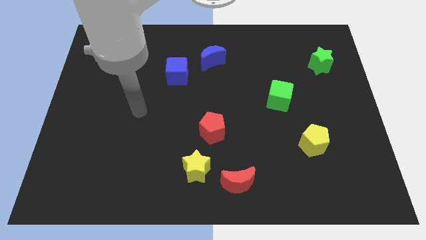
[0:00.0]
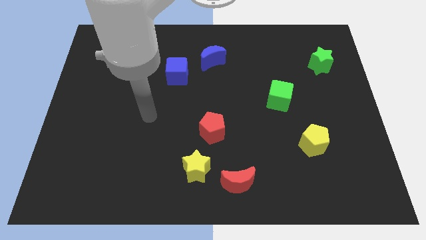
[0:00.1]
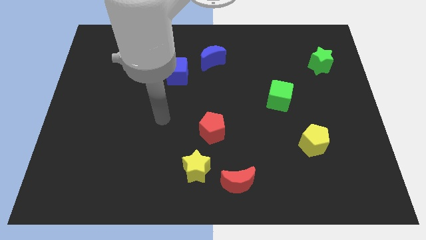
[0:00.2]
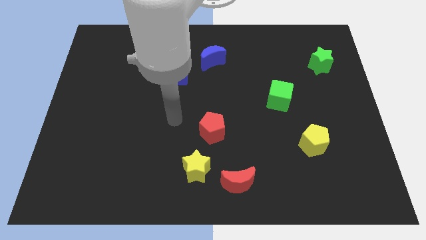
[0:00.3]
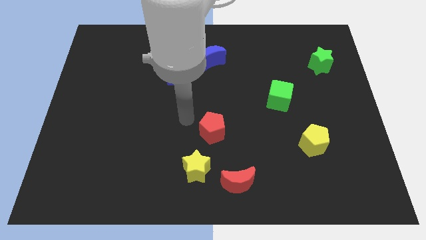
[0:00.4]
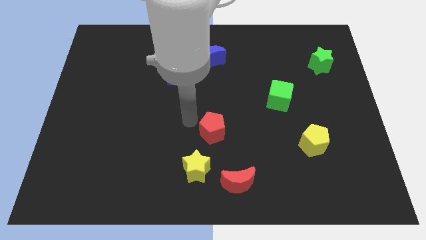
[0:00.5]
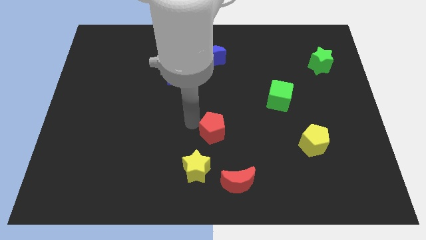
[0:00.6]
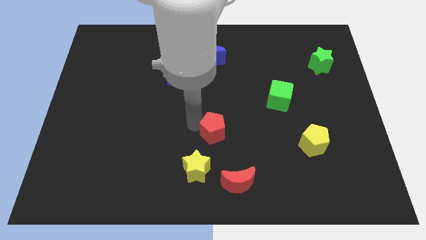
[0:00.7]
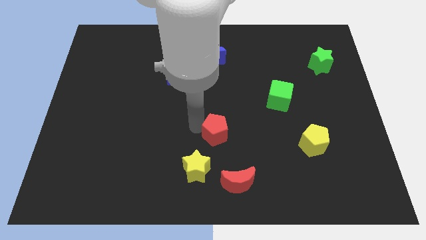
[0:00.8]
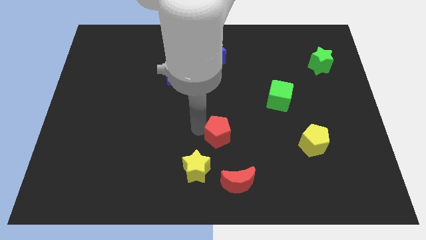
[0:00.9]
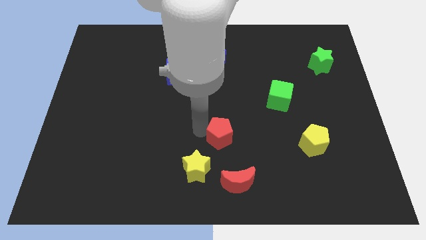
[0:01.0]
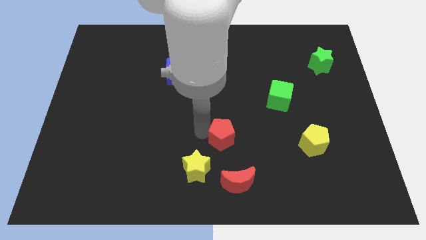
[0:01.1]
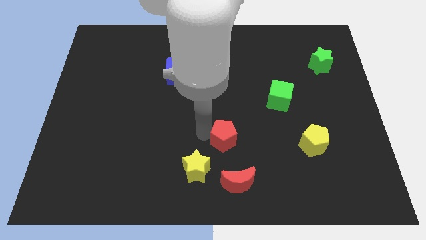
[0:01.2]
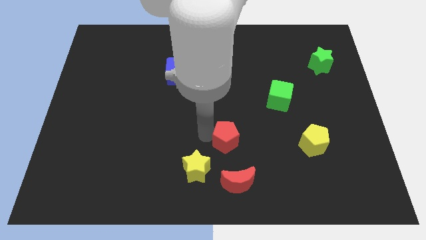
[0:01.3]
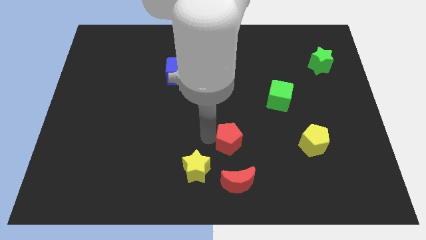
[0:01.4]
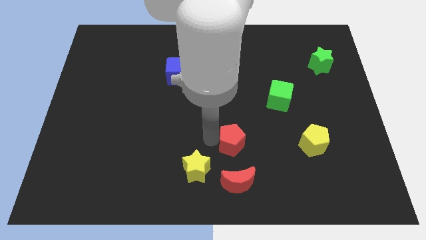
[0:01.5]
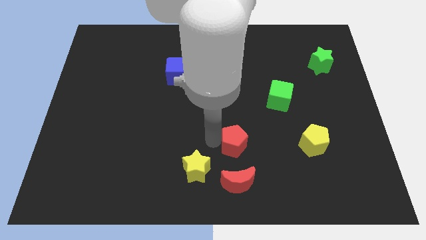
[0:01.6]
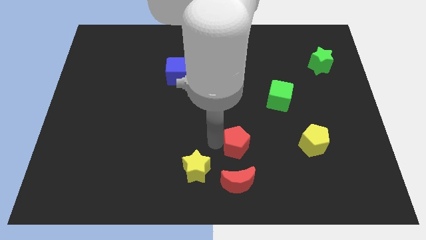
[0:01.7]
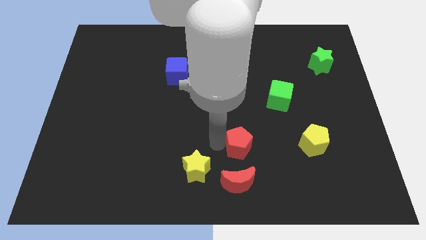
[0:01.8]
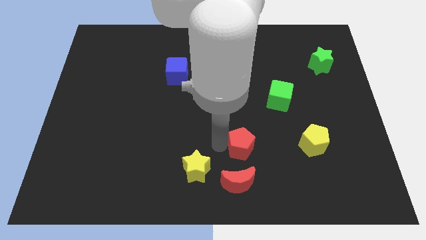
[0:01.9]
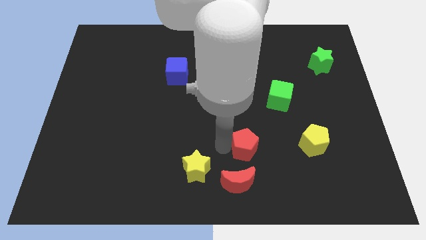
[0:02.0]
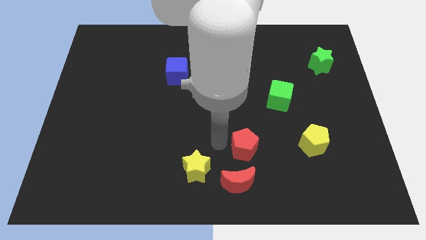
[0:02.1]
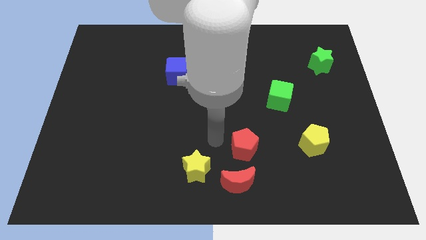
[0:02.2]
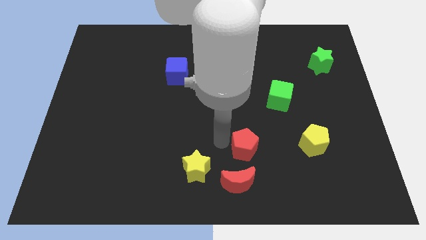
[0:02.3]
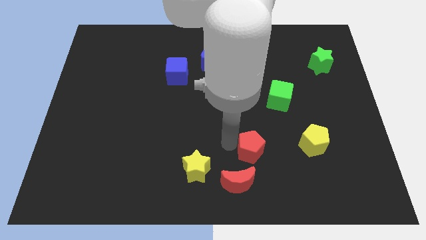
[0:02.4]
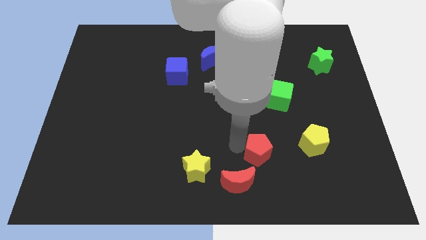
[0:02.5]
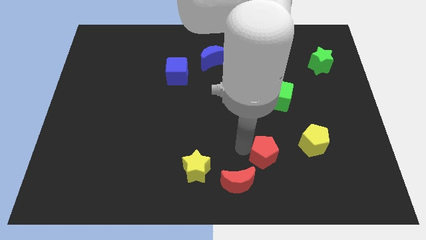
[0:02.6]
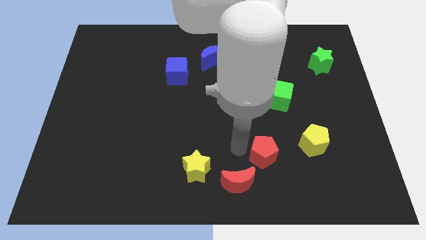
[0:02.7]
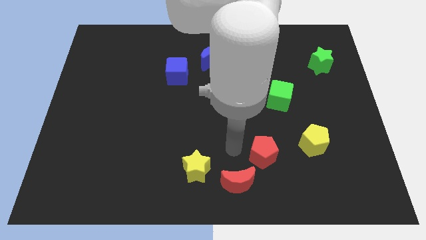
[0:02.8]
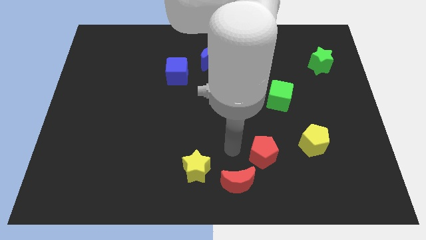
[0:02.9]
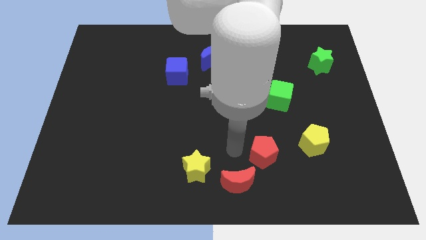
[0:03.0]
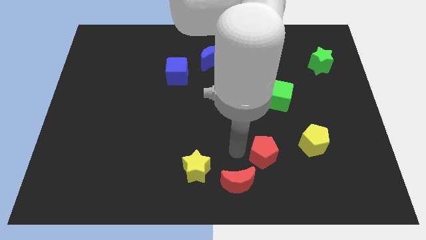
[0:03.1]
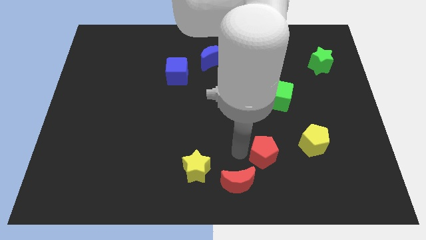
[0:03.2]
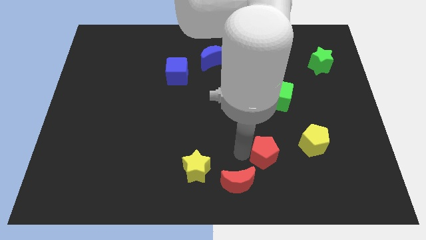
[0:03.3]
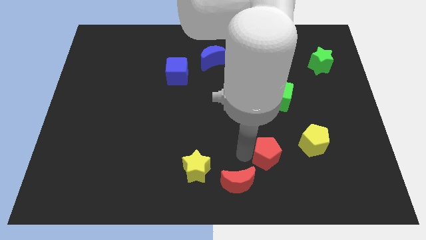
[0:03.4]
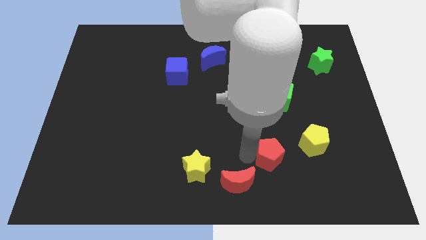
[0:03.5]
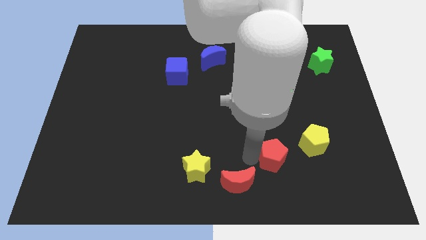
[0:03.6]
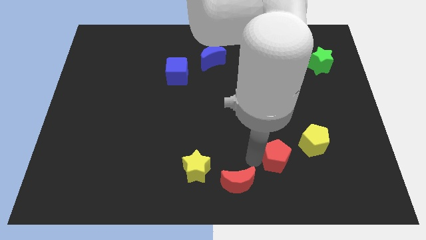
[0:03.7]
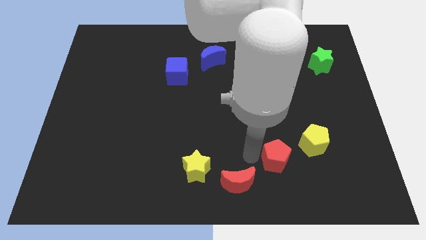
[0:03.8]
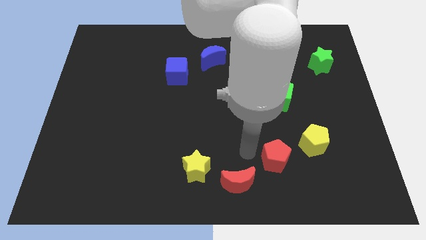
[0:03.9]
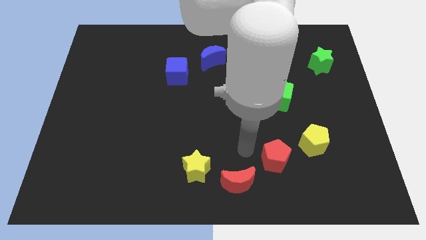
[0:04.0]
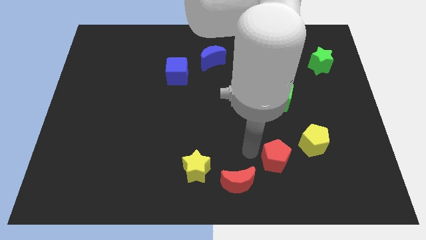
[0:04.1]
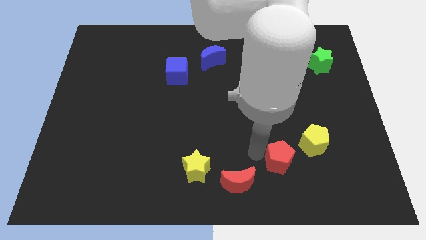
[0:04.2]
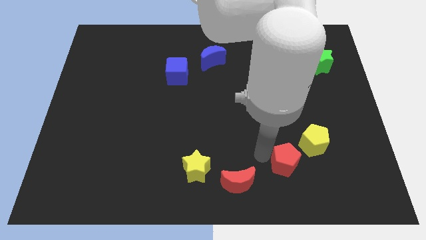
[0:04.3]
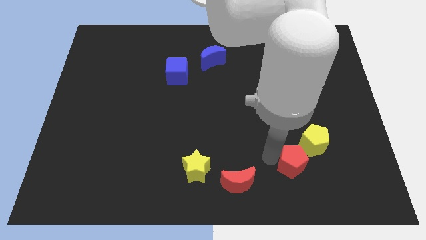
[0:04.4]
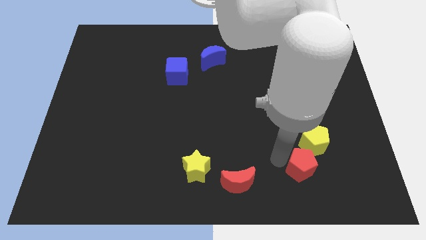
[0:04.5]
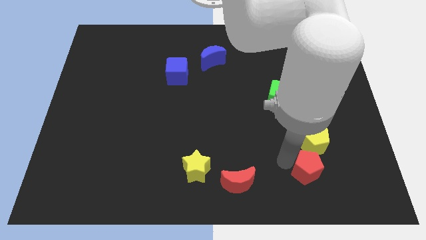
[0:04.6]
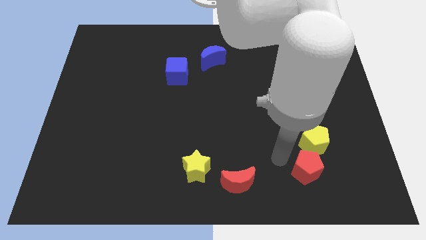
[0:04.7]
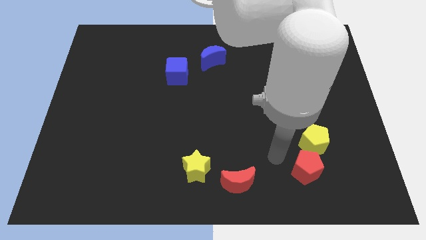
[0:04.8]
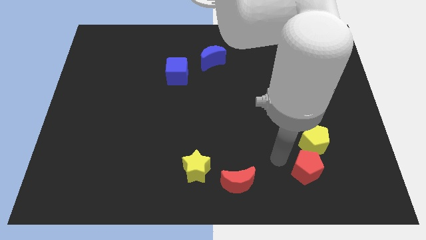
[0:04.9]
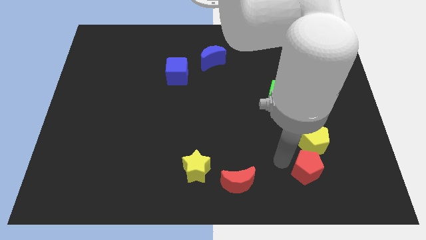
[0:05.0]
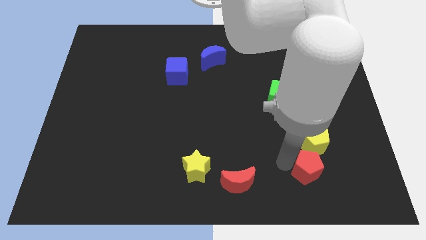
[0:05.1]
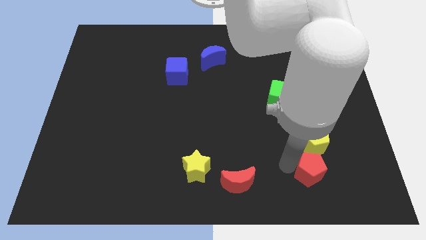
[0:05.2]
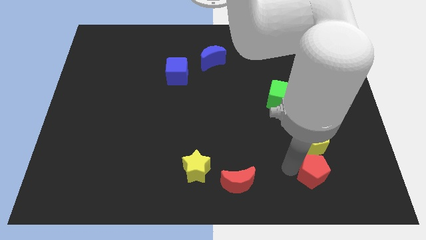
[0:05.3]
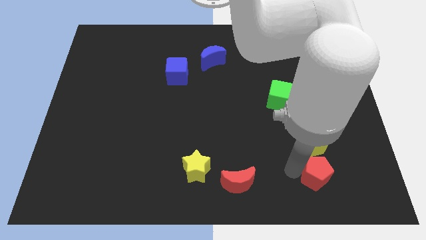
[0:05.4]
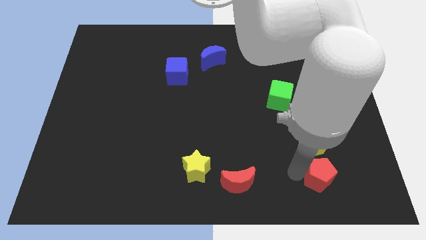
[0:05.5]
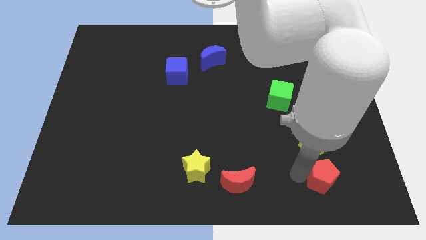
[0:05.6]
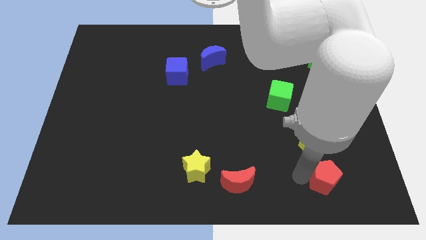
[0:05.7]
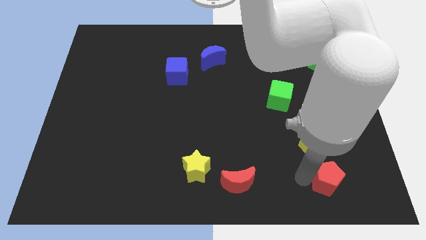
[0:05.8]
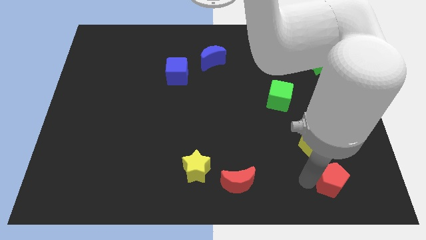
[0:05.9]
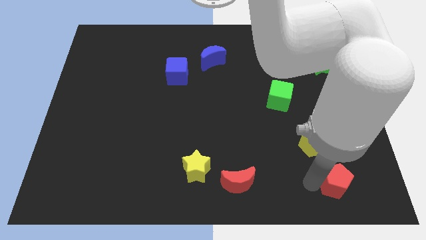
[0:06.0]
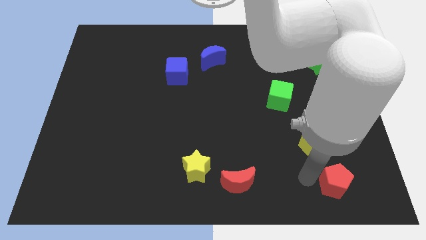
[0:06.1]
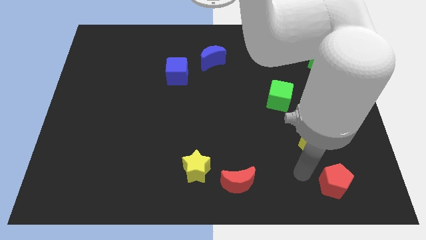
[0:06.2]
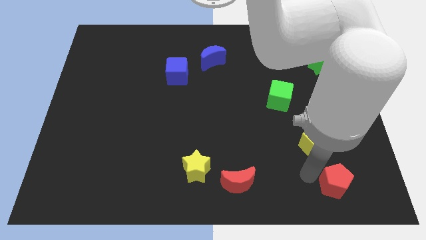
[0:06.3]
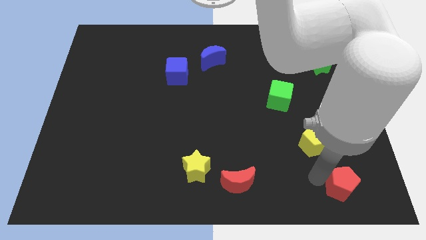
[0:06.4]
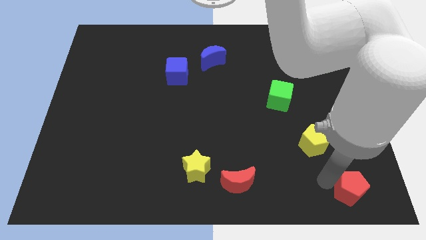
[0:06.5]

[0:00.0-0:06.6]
move the red pentagon to the bottom right of the board
